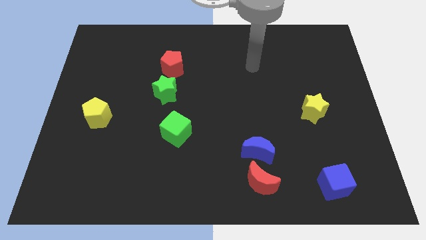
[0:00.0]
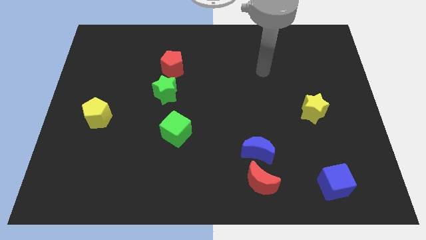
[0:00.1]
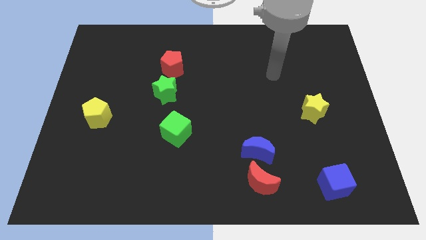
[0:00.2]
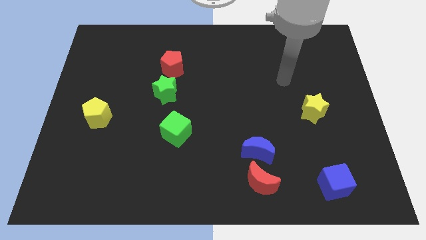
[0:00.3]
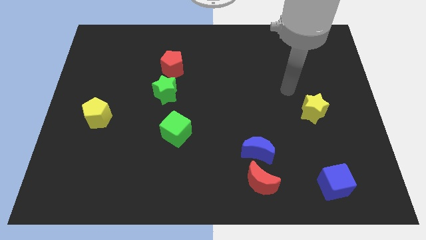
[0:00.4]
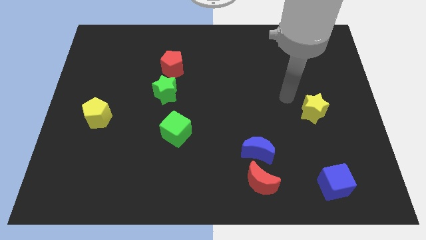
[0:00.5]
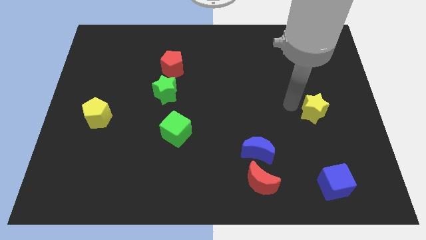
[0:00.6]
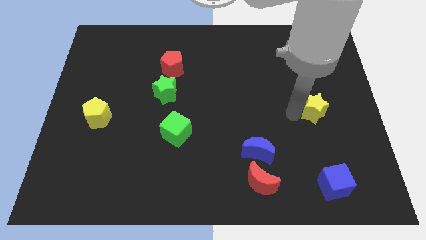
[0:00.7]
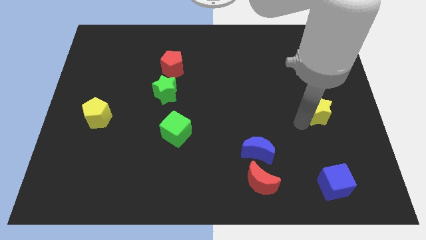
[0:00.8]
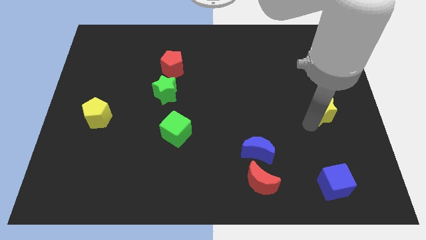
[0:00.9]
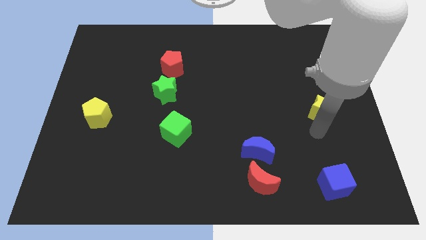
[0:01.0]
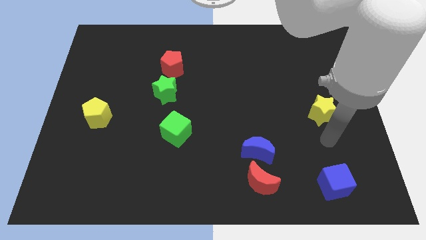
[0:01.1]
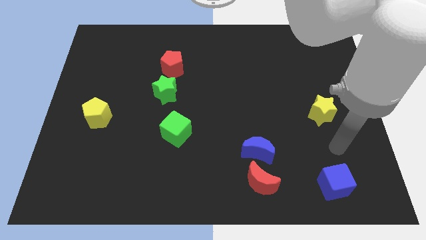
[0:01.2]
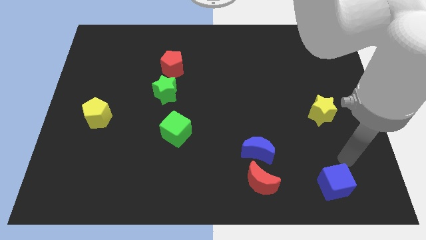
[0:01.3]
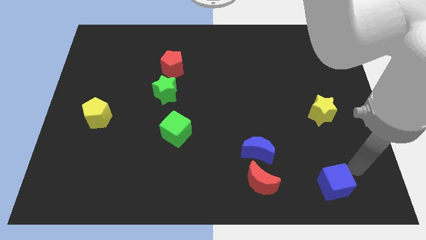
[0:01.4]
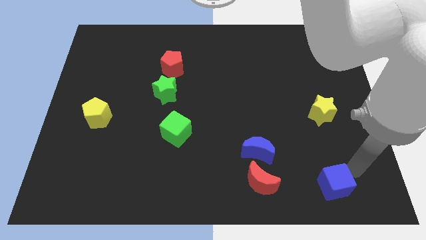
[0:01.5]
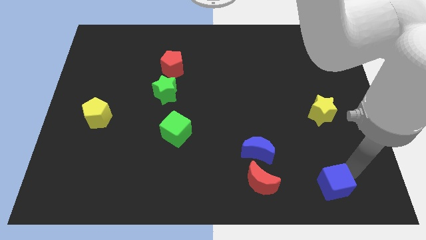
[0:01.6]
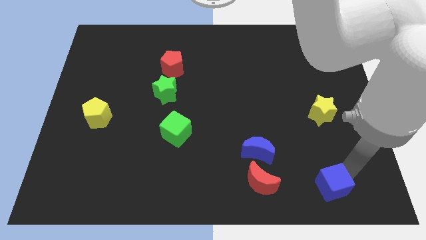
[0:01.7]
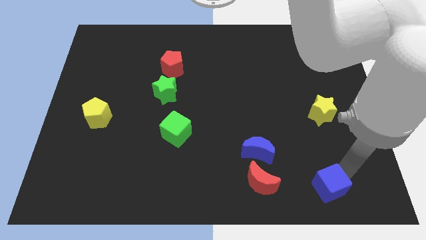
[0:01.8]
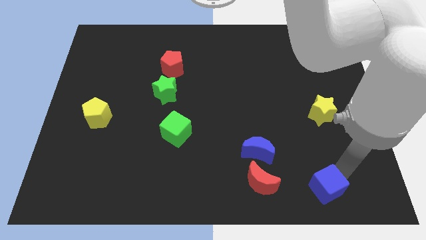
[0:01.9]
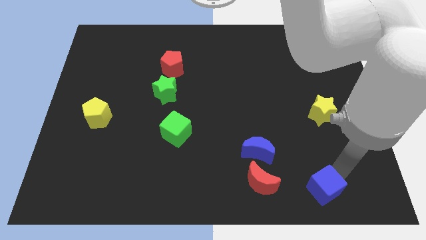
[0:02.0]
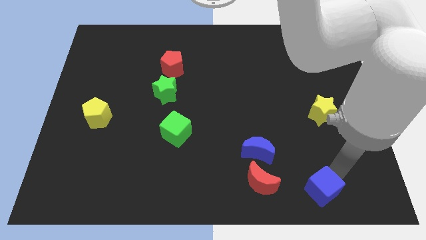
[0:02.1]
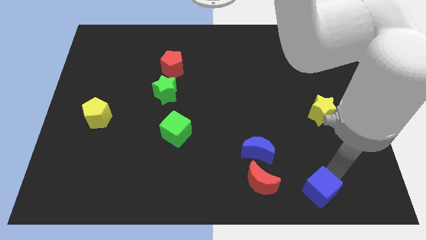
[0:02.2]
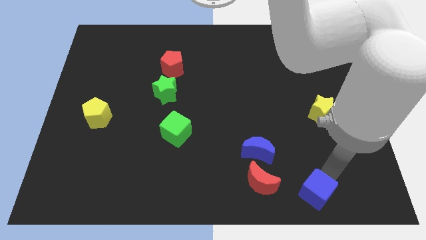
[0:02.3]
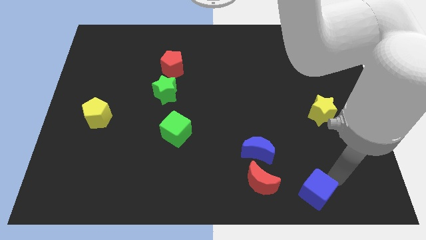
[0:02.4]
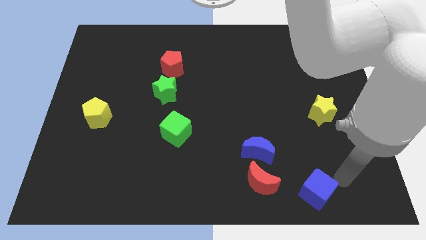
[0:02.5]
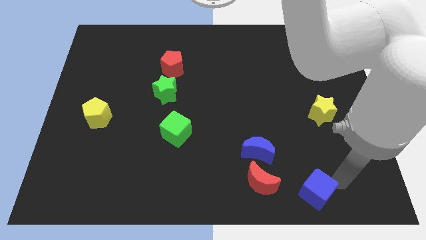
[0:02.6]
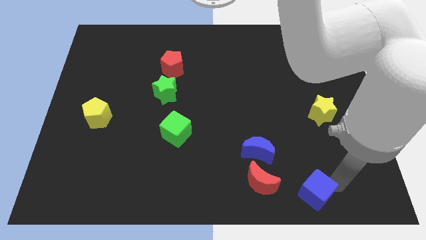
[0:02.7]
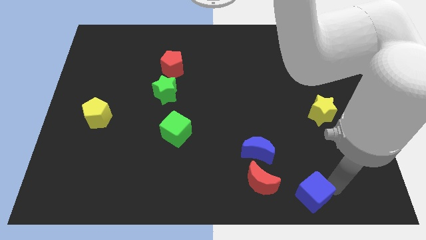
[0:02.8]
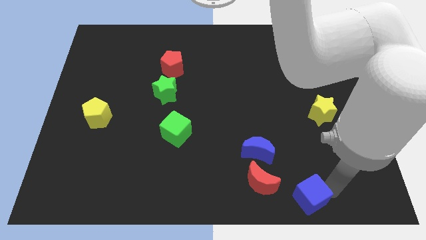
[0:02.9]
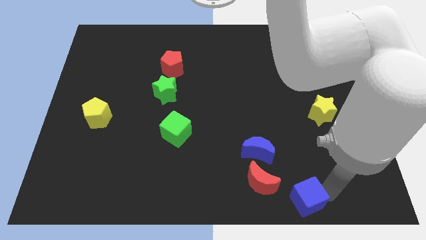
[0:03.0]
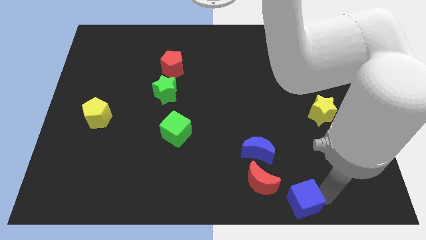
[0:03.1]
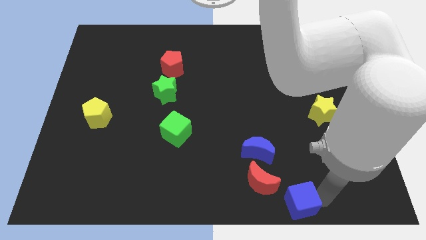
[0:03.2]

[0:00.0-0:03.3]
push the blue cube slightly to the left

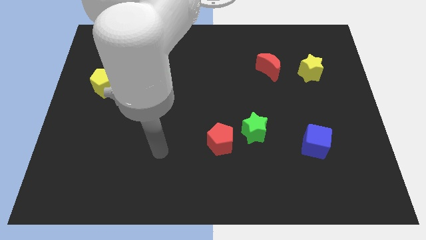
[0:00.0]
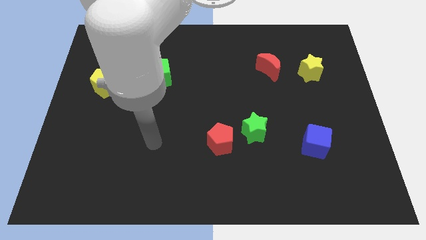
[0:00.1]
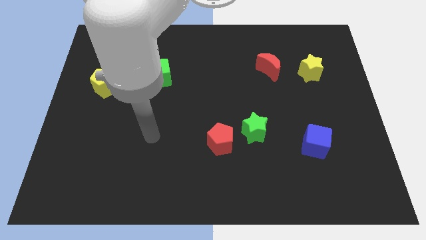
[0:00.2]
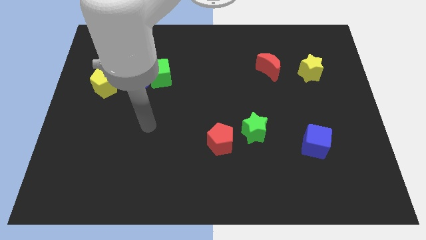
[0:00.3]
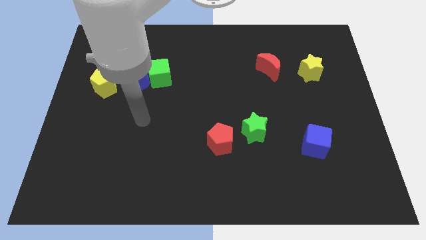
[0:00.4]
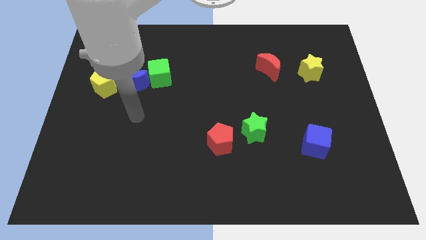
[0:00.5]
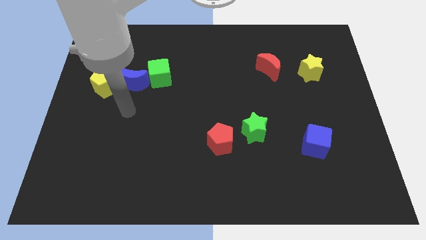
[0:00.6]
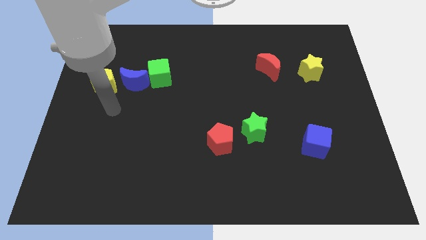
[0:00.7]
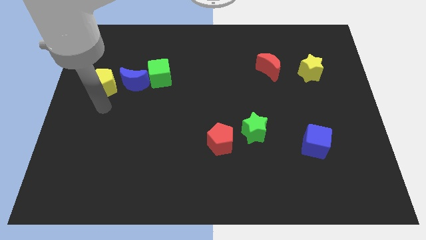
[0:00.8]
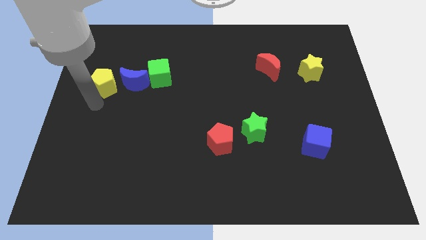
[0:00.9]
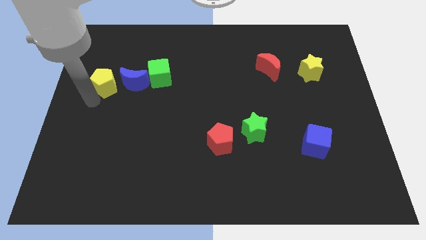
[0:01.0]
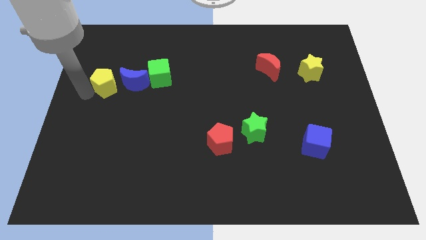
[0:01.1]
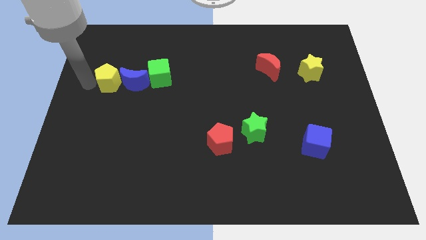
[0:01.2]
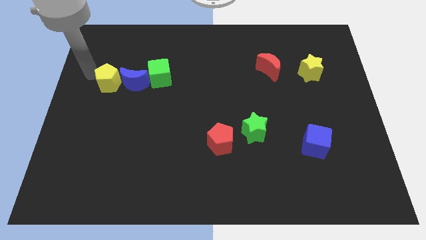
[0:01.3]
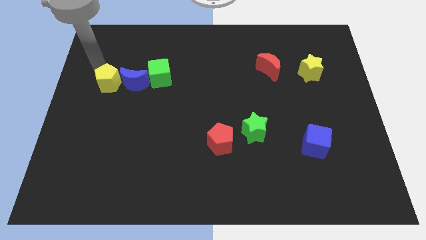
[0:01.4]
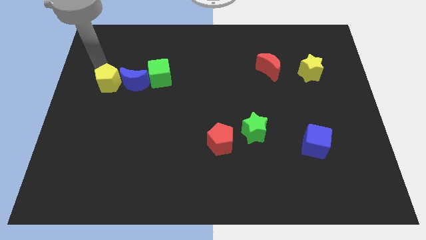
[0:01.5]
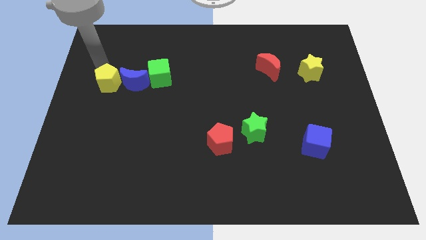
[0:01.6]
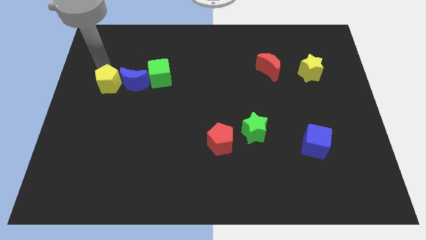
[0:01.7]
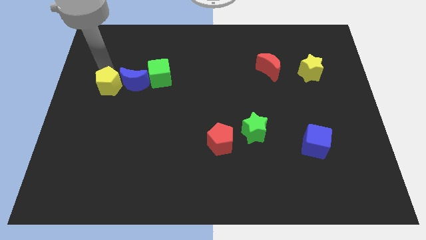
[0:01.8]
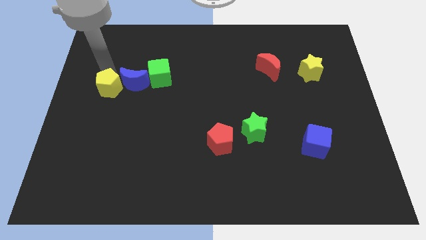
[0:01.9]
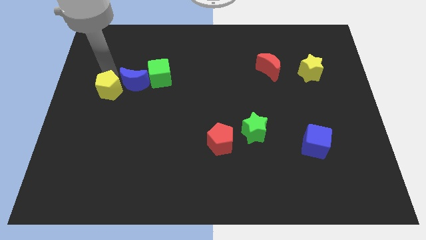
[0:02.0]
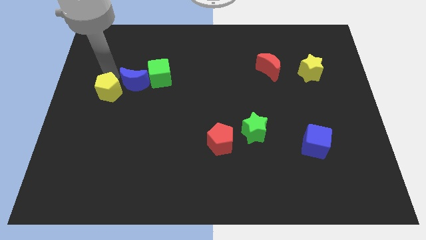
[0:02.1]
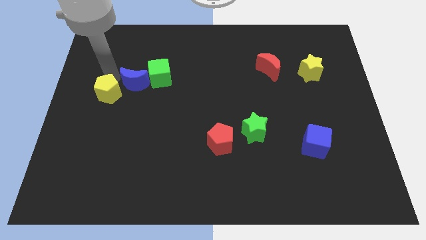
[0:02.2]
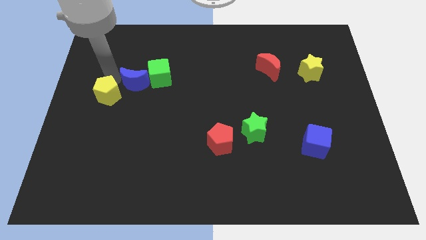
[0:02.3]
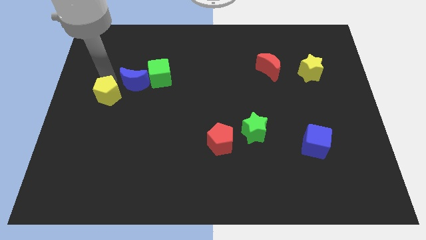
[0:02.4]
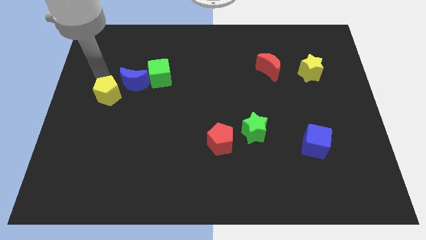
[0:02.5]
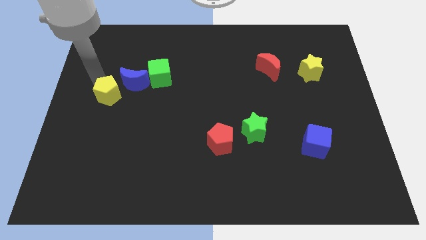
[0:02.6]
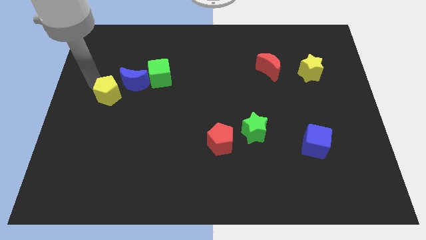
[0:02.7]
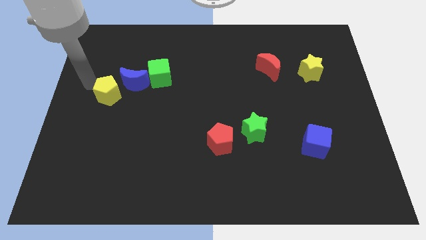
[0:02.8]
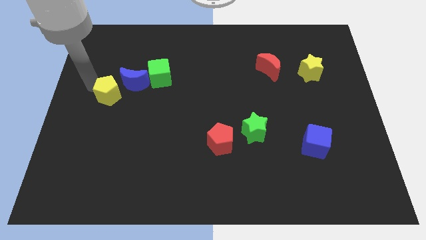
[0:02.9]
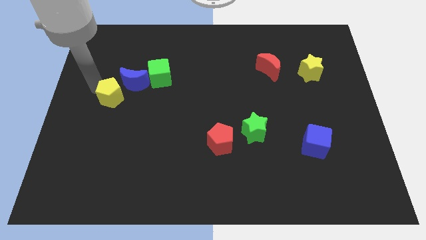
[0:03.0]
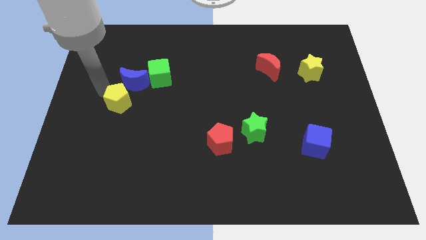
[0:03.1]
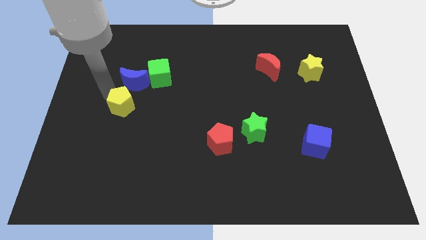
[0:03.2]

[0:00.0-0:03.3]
slightly move the yellow pentagon diagonally downwards and to the right

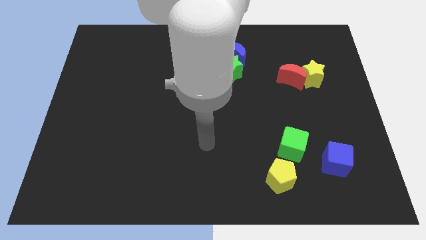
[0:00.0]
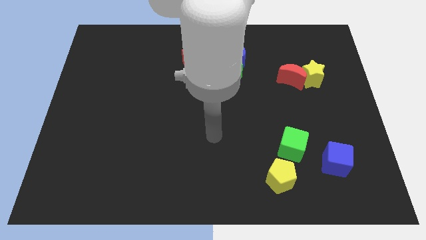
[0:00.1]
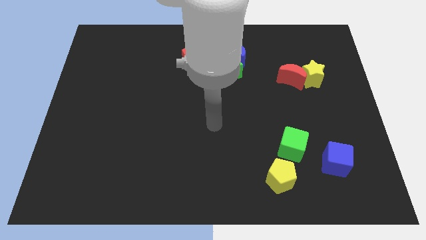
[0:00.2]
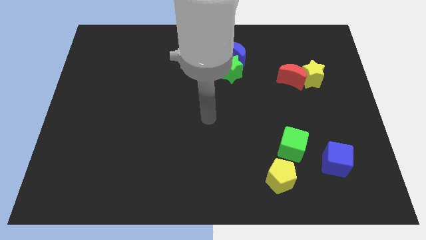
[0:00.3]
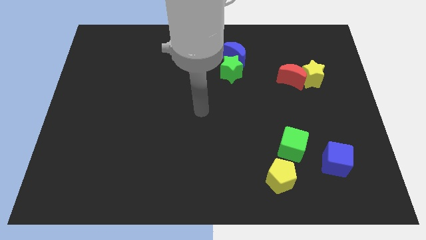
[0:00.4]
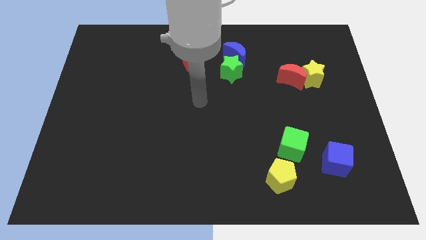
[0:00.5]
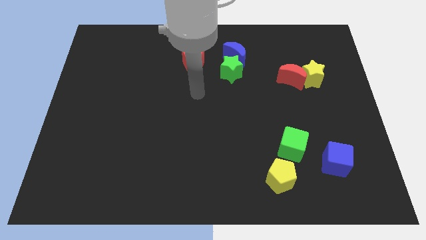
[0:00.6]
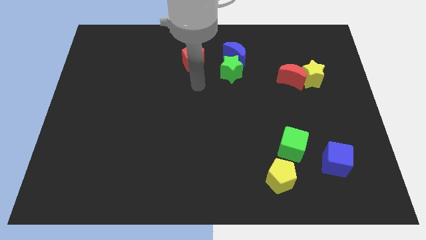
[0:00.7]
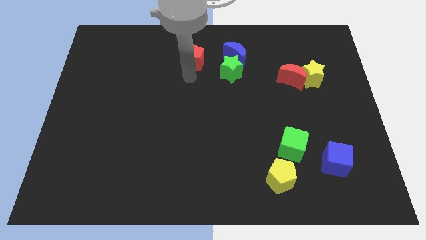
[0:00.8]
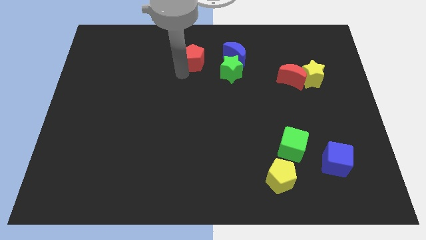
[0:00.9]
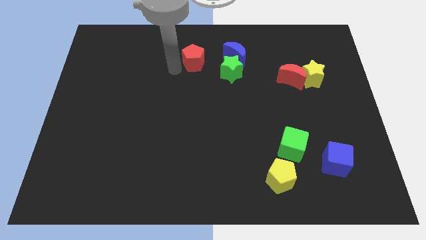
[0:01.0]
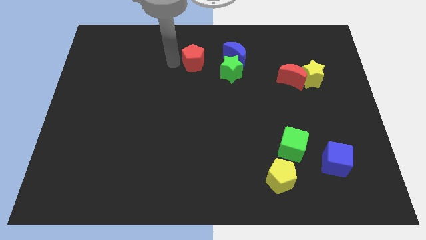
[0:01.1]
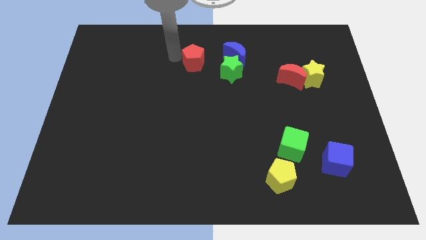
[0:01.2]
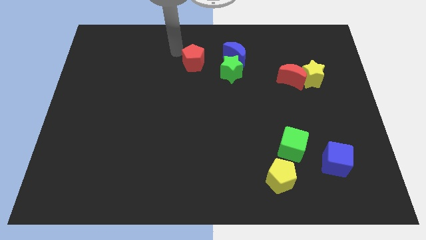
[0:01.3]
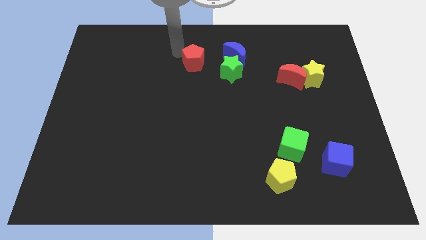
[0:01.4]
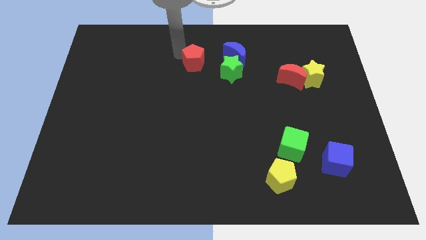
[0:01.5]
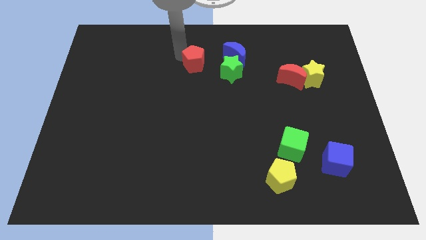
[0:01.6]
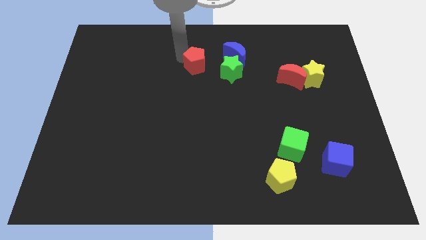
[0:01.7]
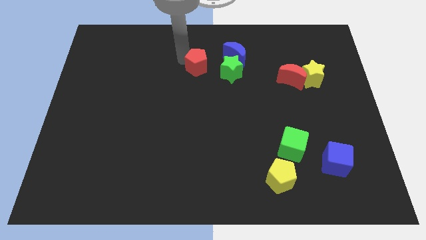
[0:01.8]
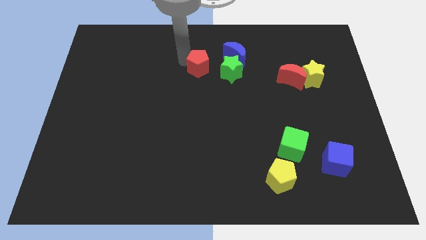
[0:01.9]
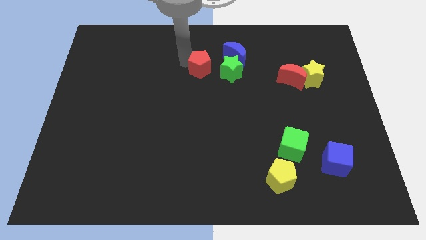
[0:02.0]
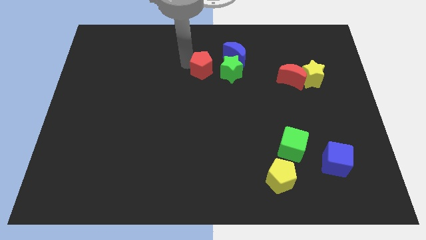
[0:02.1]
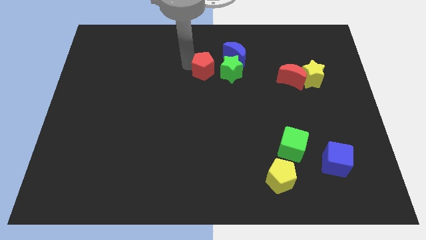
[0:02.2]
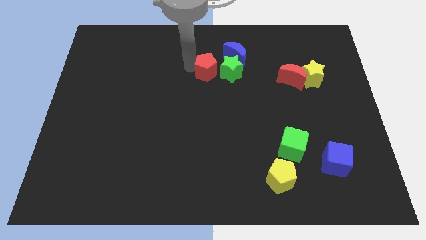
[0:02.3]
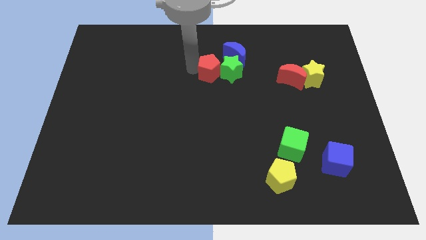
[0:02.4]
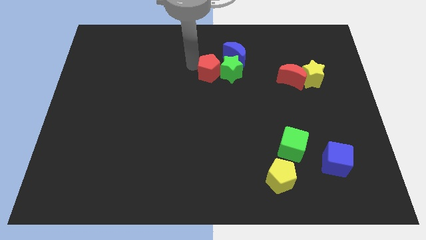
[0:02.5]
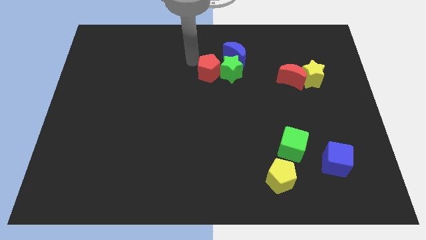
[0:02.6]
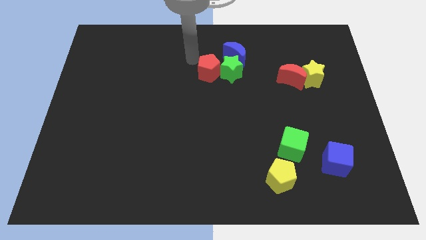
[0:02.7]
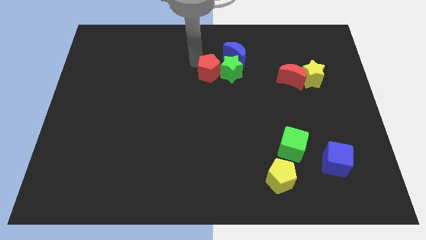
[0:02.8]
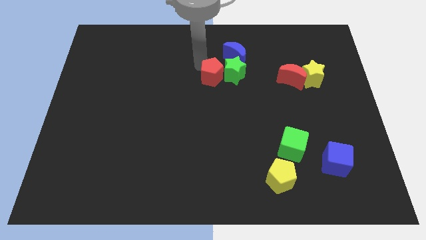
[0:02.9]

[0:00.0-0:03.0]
slightly slide the red pentagon downwards and then right
